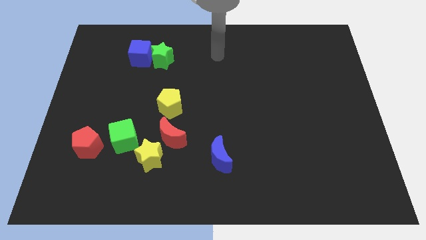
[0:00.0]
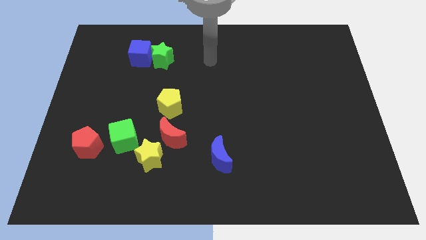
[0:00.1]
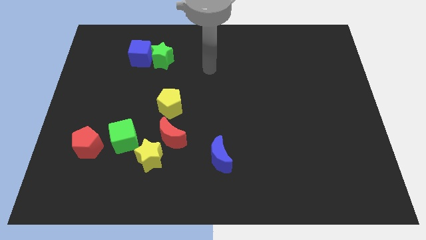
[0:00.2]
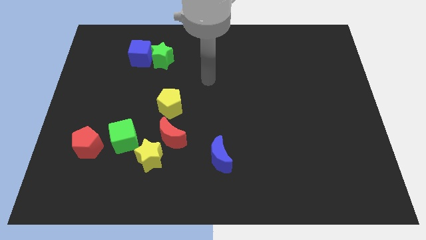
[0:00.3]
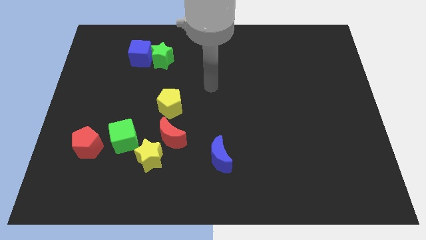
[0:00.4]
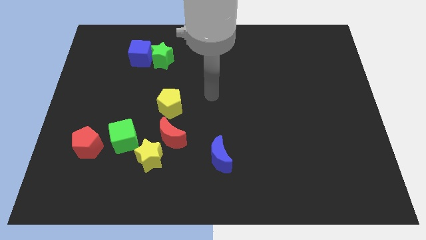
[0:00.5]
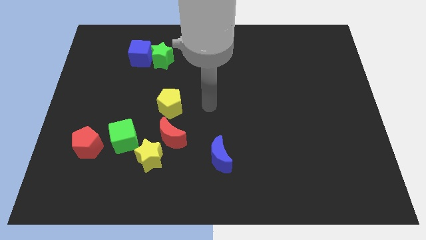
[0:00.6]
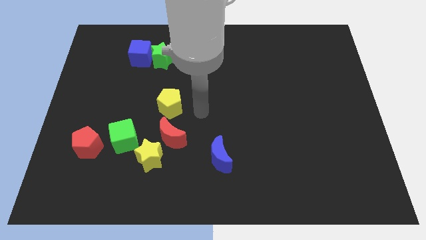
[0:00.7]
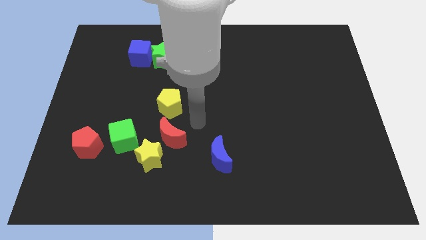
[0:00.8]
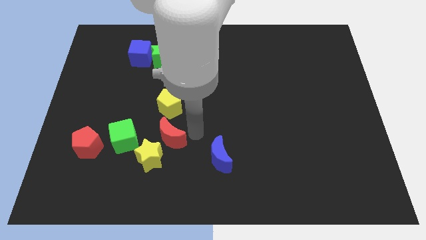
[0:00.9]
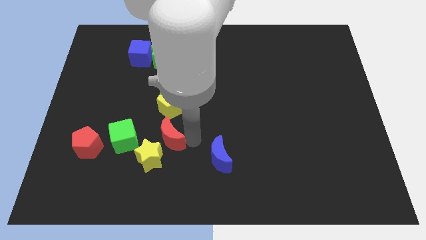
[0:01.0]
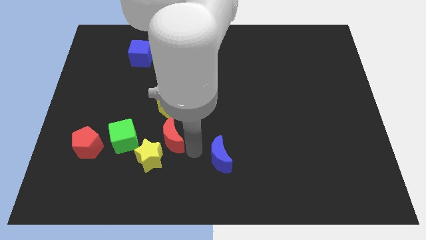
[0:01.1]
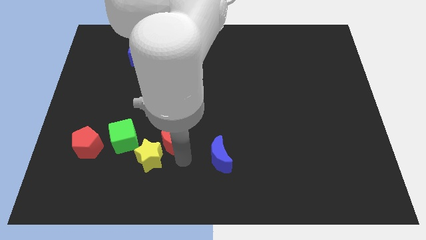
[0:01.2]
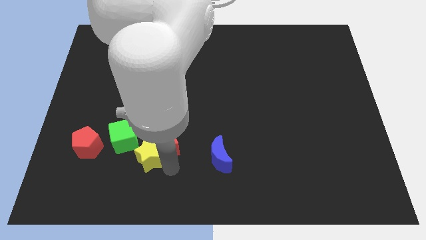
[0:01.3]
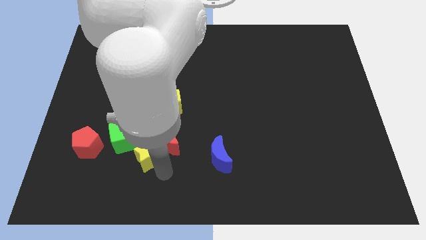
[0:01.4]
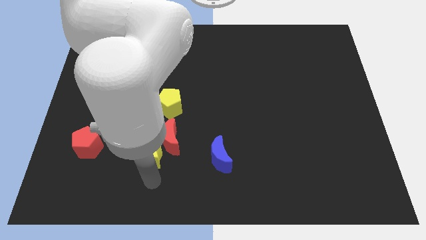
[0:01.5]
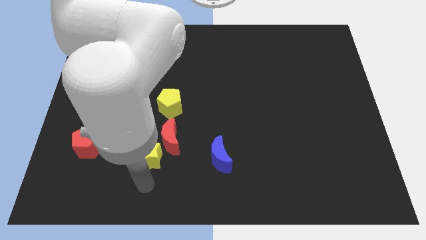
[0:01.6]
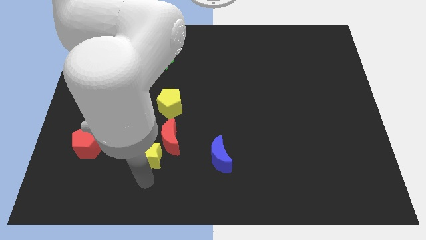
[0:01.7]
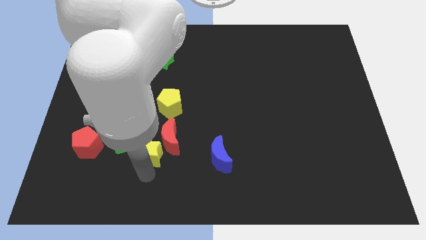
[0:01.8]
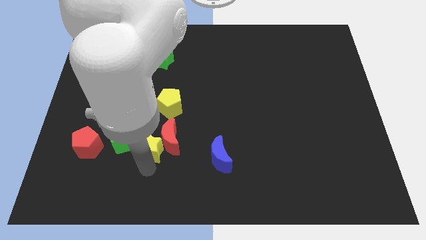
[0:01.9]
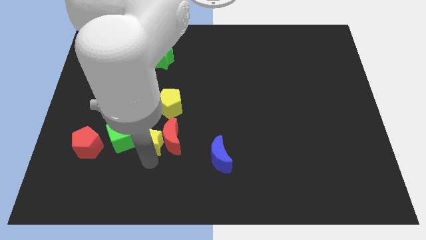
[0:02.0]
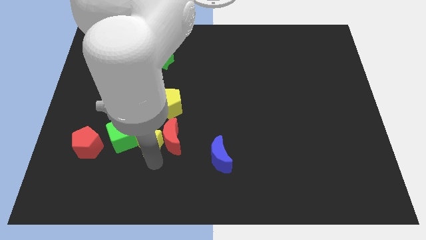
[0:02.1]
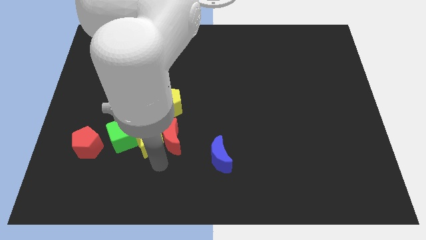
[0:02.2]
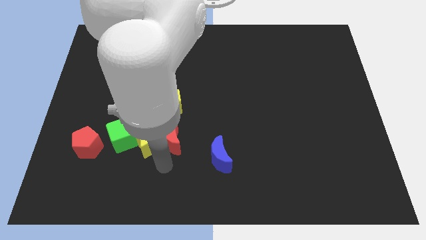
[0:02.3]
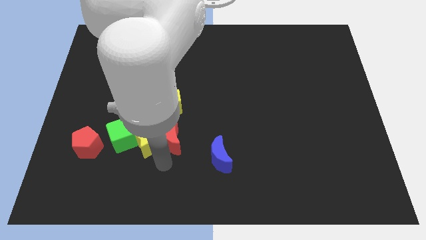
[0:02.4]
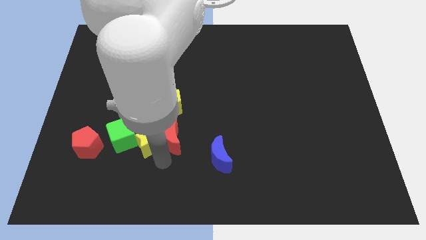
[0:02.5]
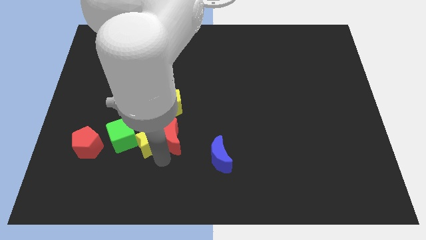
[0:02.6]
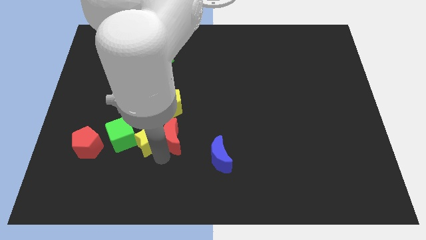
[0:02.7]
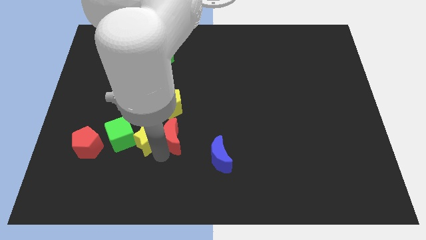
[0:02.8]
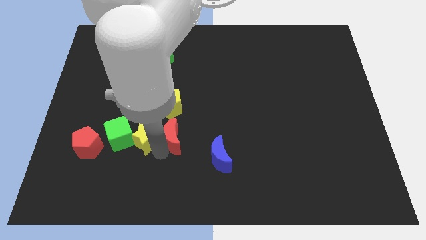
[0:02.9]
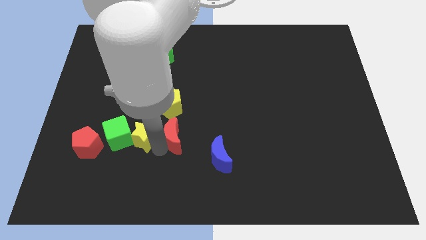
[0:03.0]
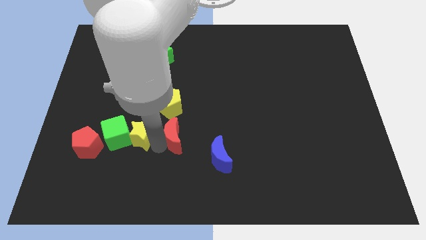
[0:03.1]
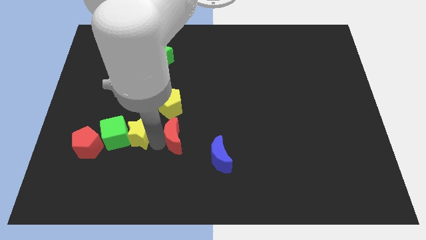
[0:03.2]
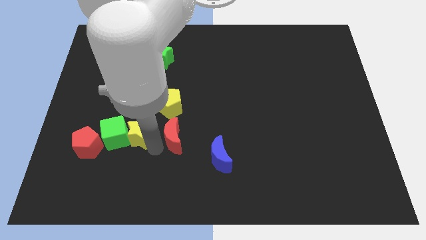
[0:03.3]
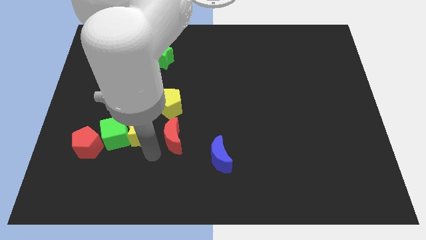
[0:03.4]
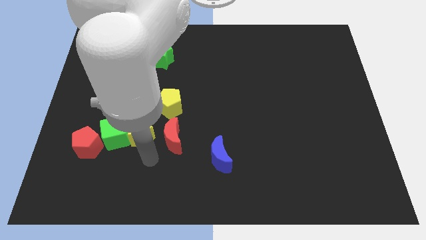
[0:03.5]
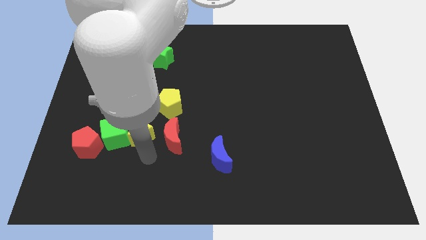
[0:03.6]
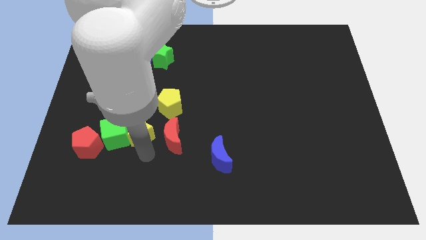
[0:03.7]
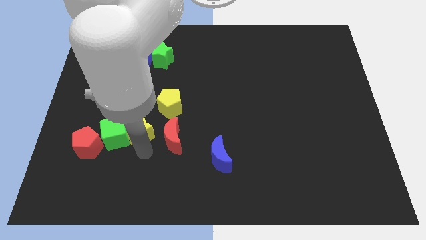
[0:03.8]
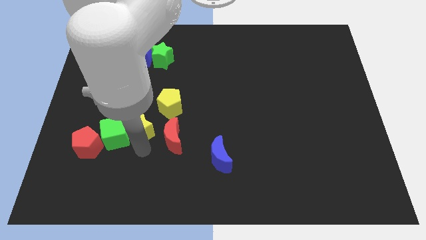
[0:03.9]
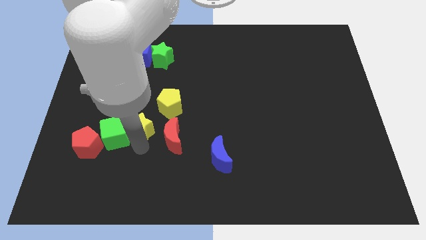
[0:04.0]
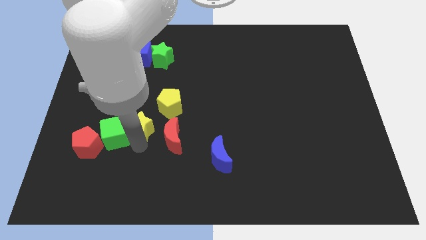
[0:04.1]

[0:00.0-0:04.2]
slightly slide the yellow star up and then to the left

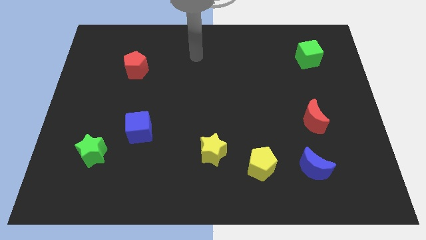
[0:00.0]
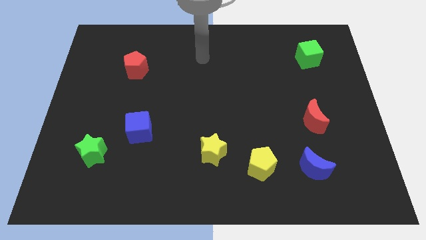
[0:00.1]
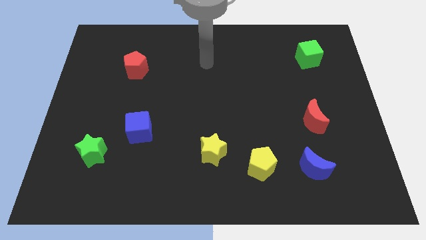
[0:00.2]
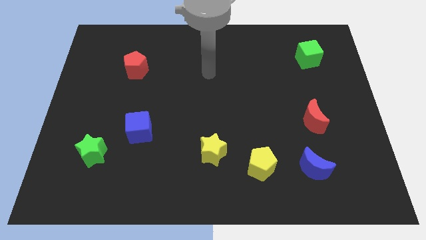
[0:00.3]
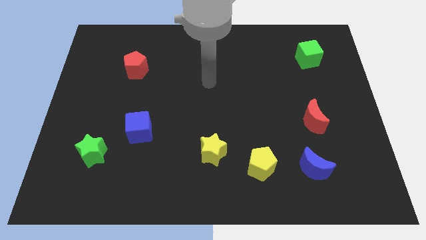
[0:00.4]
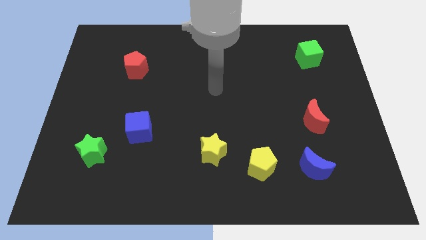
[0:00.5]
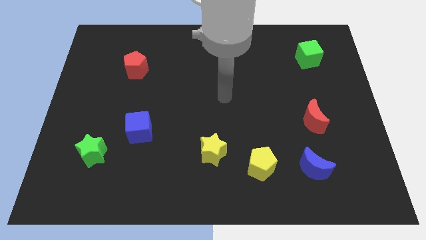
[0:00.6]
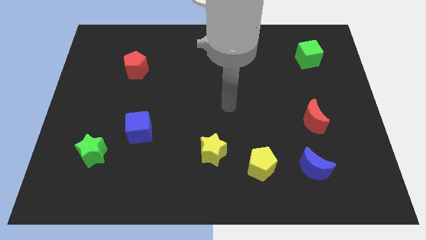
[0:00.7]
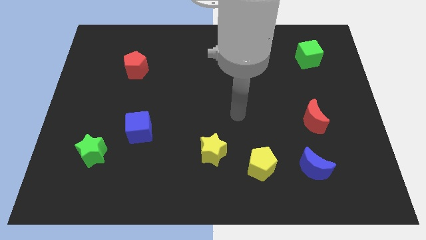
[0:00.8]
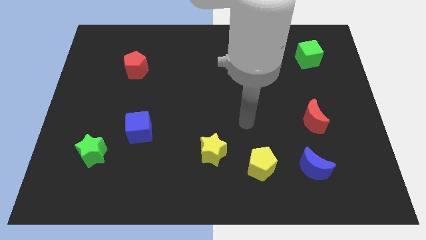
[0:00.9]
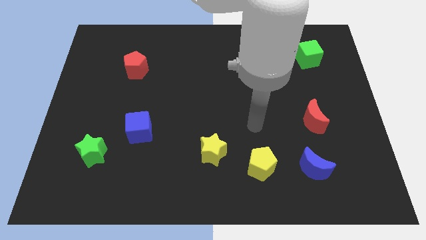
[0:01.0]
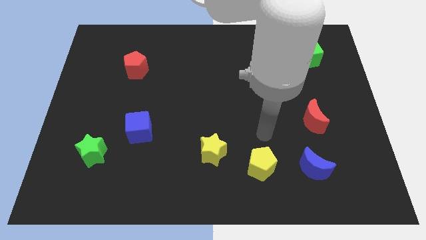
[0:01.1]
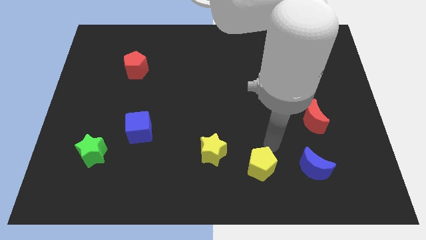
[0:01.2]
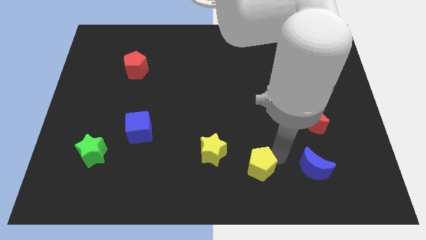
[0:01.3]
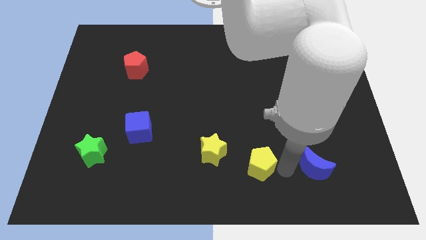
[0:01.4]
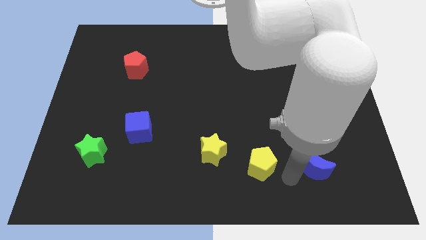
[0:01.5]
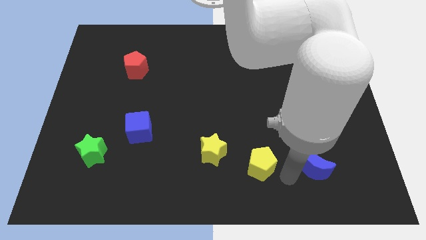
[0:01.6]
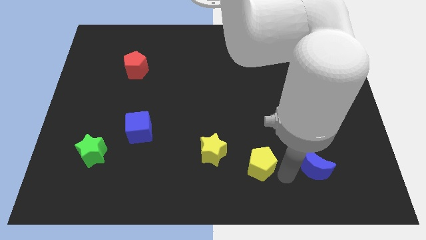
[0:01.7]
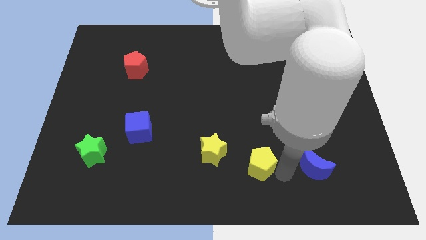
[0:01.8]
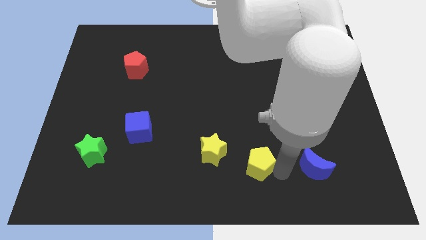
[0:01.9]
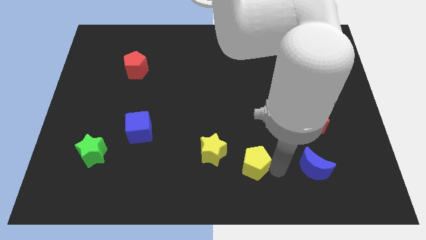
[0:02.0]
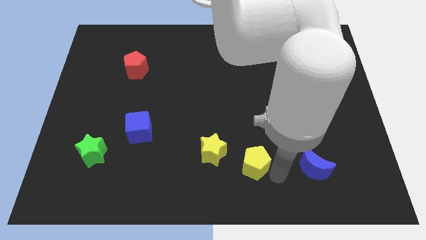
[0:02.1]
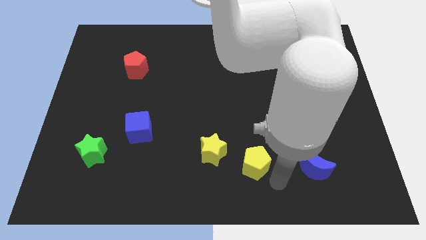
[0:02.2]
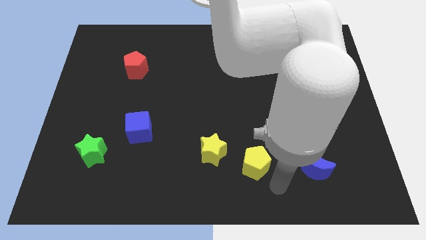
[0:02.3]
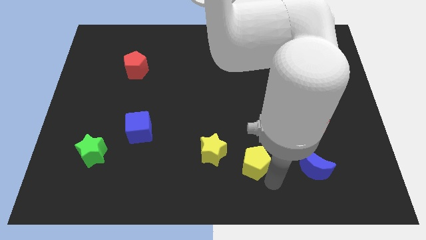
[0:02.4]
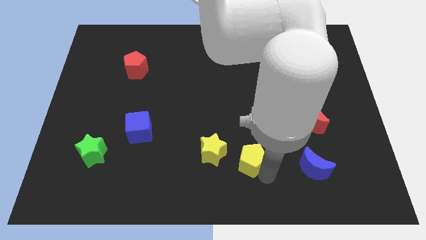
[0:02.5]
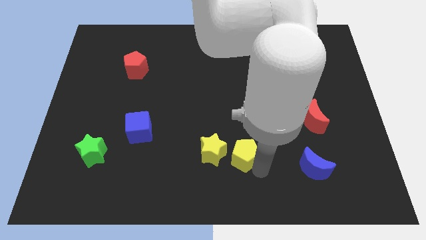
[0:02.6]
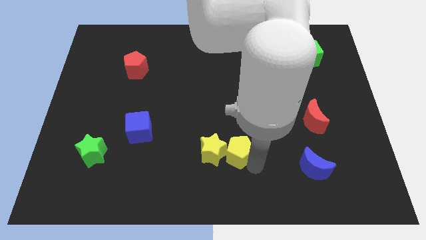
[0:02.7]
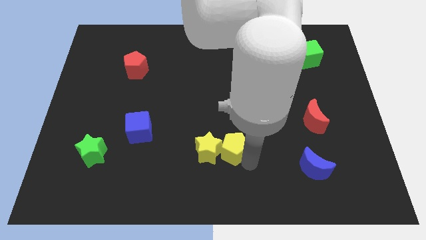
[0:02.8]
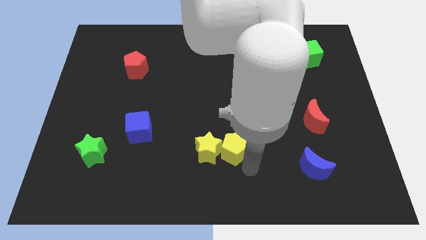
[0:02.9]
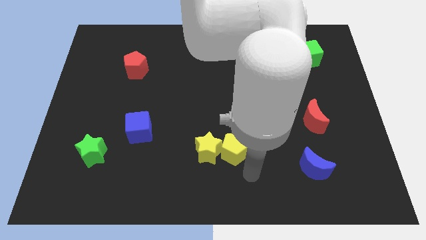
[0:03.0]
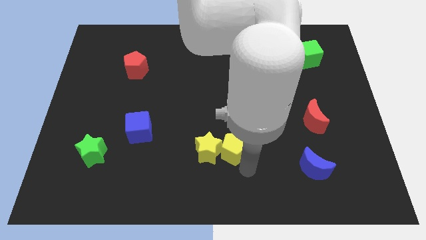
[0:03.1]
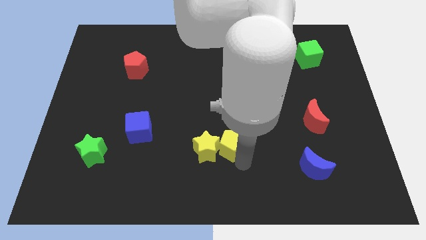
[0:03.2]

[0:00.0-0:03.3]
slide the yellow pentagon upwards and left diagonally a little bit

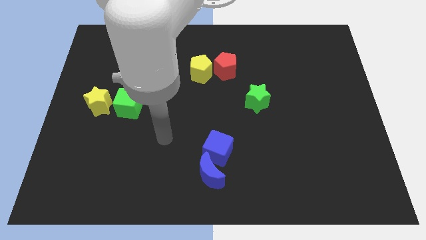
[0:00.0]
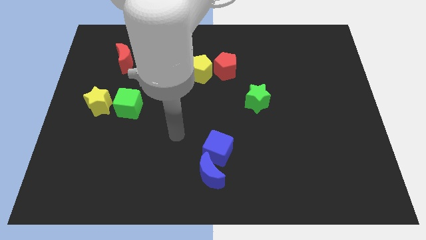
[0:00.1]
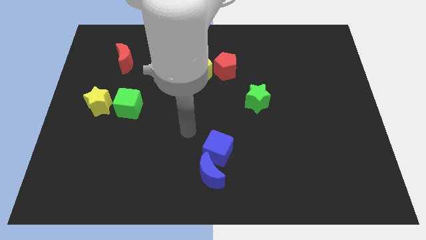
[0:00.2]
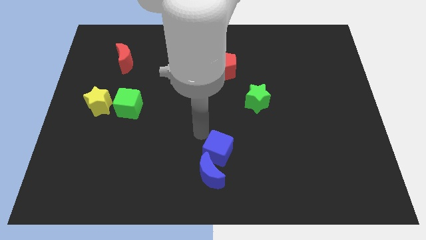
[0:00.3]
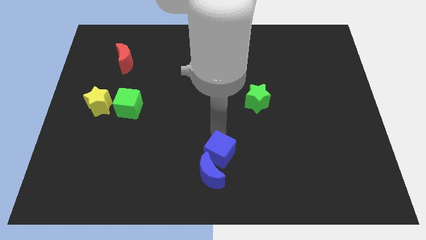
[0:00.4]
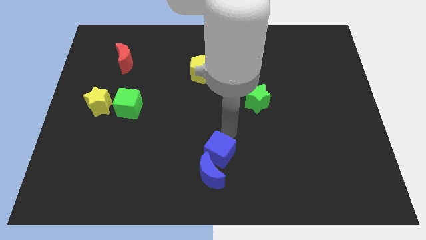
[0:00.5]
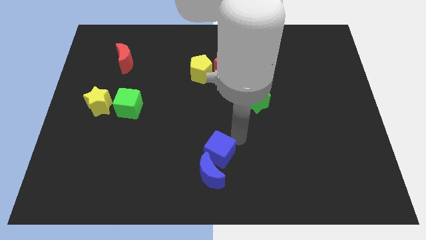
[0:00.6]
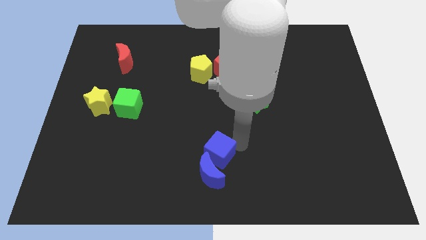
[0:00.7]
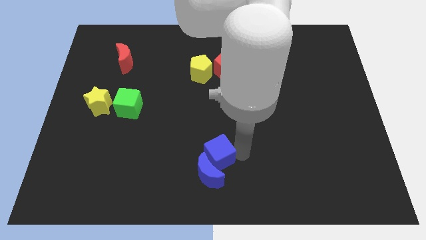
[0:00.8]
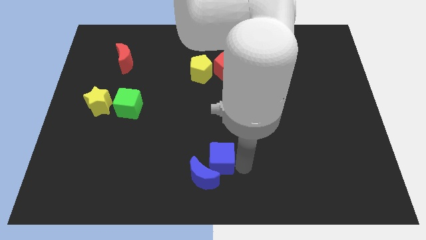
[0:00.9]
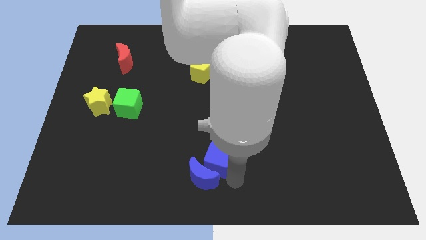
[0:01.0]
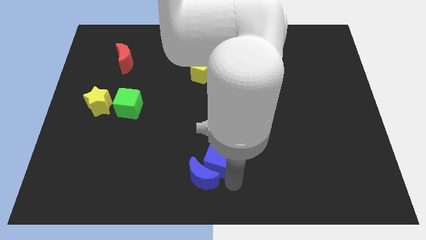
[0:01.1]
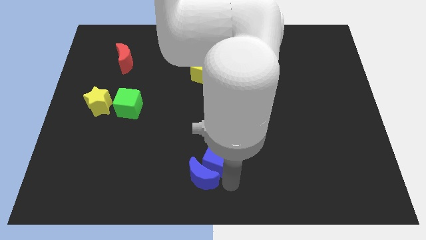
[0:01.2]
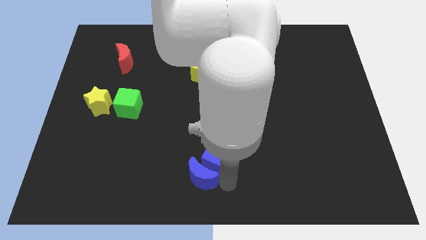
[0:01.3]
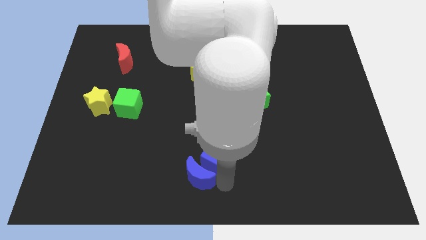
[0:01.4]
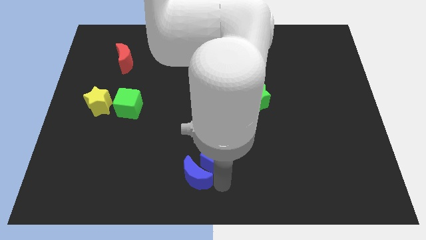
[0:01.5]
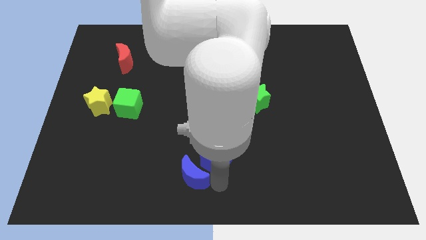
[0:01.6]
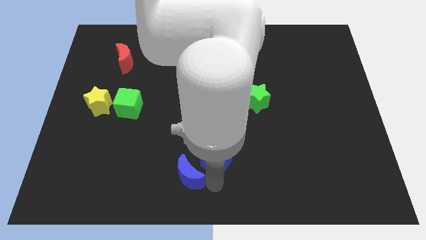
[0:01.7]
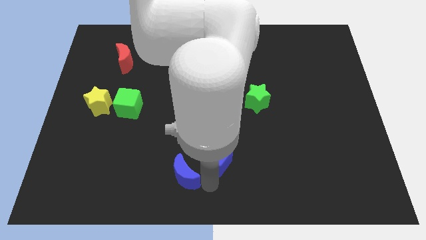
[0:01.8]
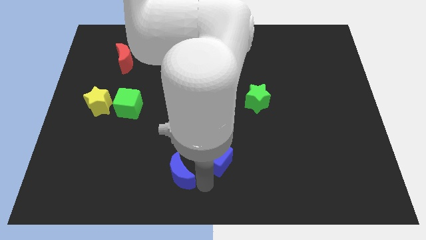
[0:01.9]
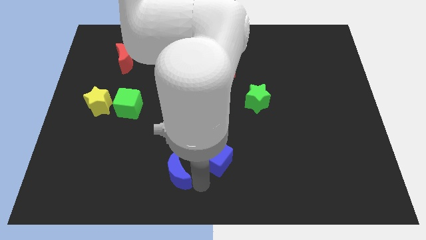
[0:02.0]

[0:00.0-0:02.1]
slightly push the blue moon left
